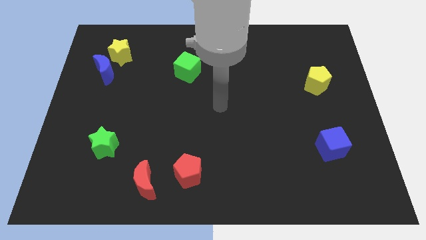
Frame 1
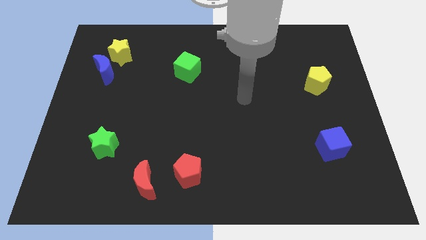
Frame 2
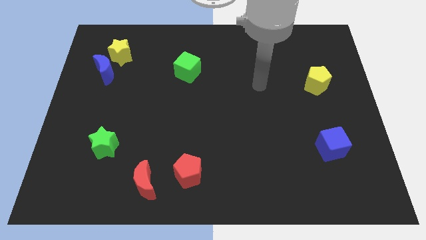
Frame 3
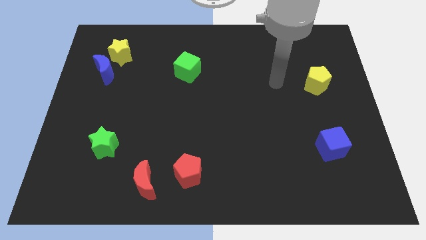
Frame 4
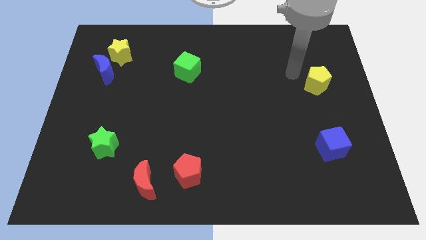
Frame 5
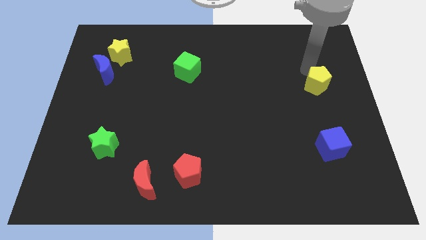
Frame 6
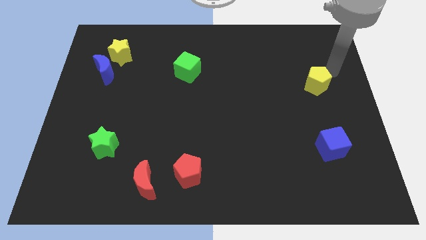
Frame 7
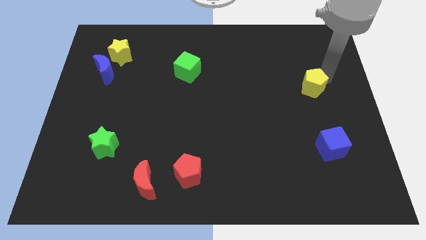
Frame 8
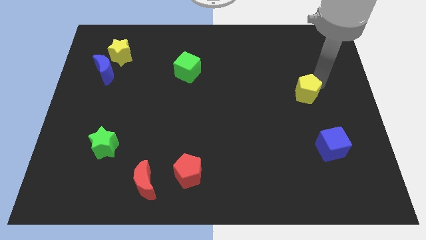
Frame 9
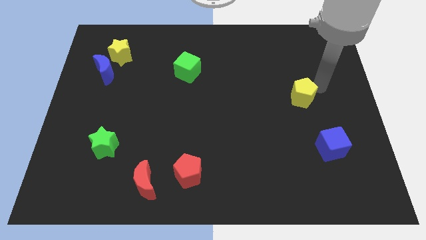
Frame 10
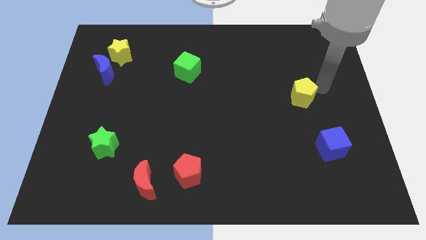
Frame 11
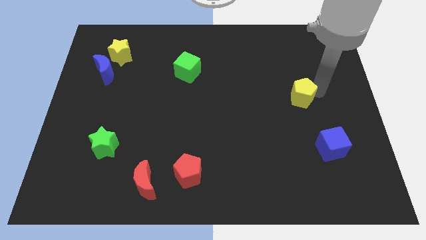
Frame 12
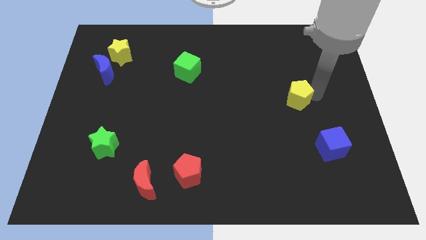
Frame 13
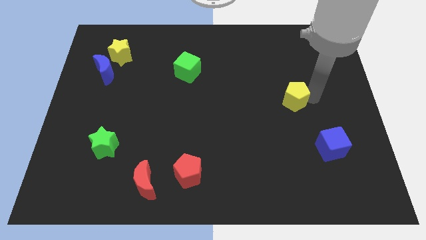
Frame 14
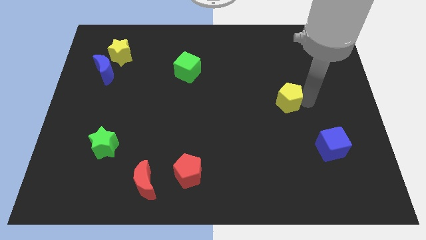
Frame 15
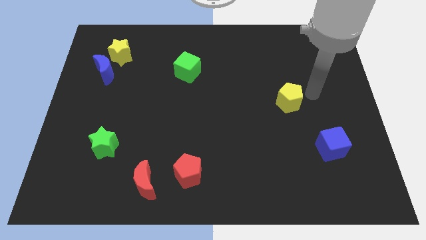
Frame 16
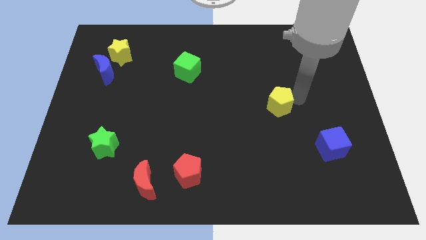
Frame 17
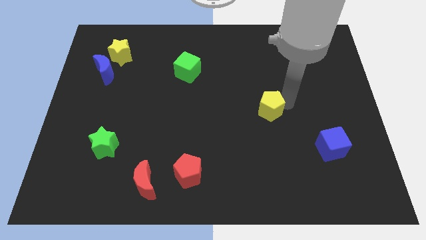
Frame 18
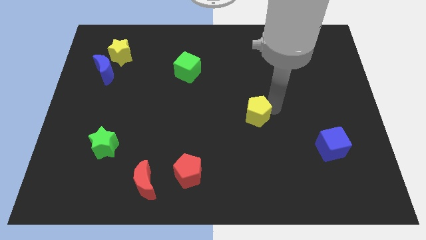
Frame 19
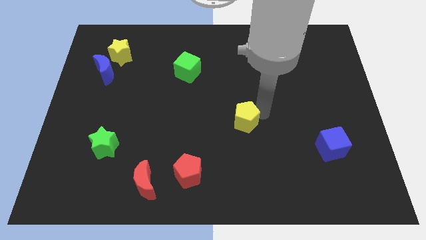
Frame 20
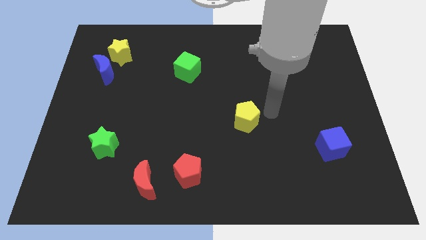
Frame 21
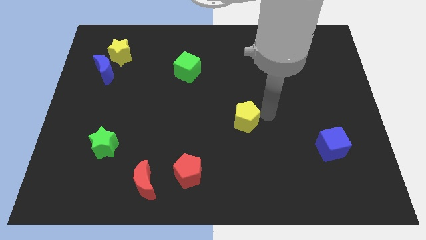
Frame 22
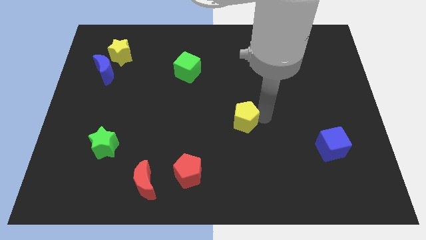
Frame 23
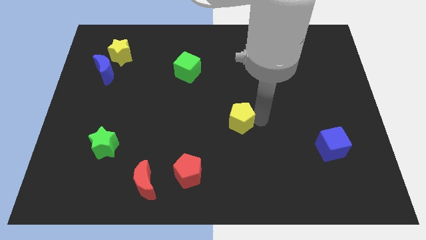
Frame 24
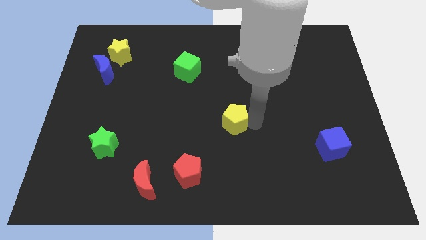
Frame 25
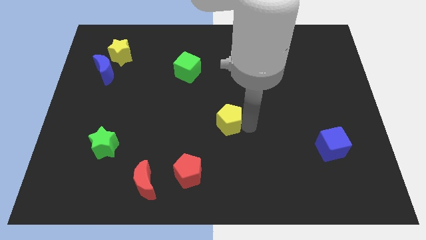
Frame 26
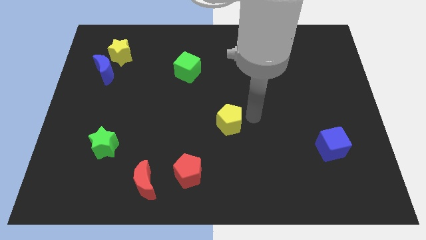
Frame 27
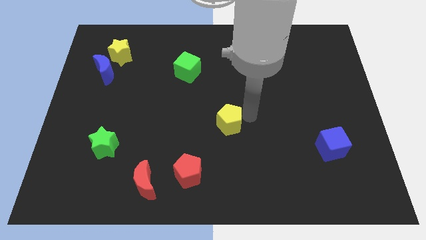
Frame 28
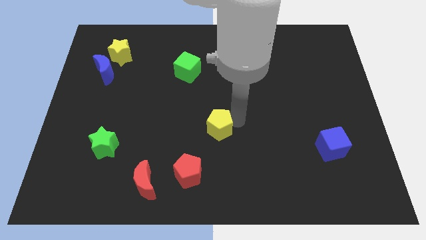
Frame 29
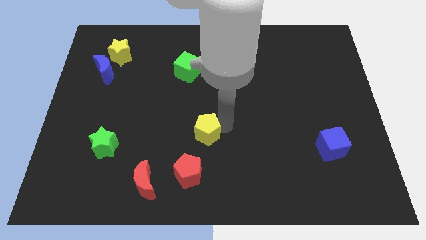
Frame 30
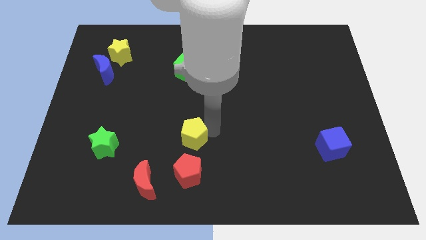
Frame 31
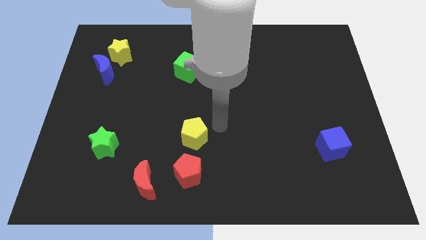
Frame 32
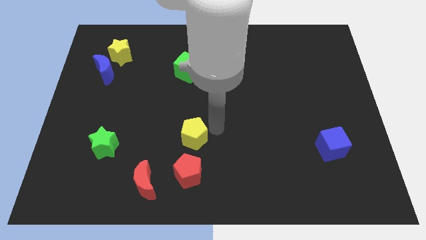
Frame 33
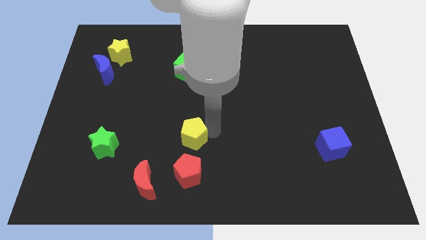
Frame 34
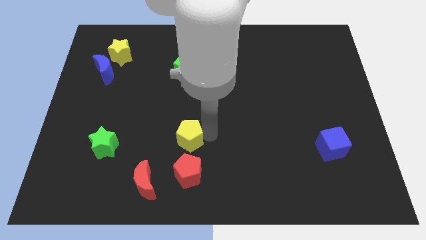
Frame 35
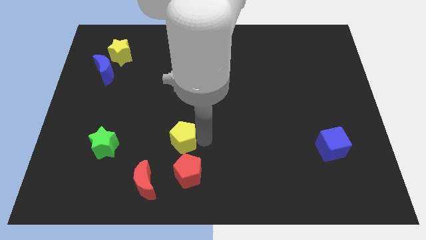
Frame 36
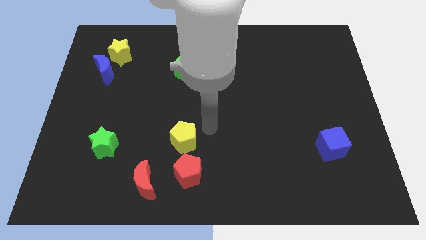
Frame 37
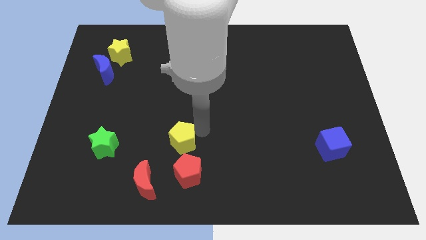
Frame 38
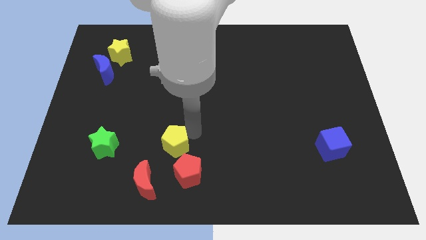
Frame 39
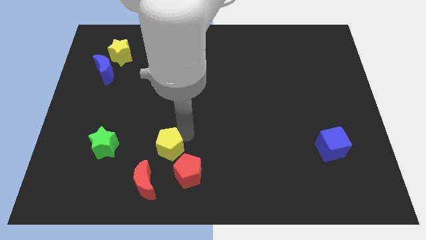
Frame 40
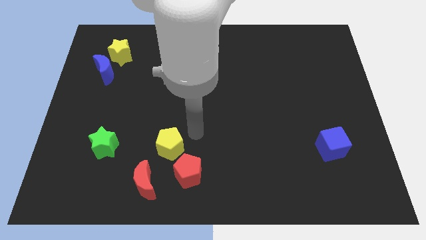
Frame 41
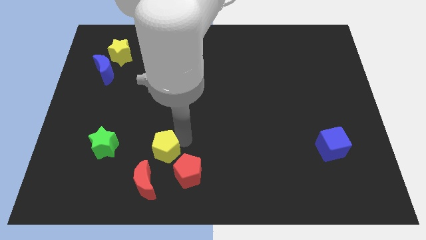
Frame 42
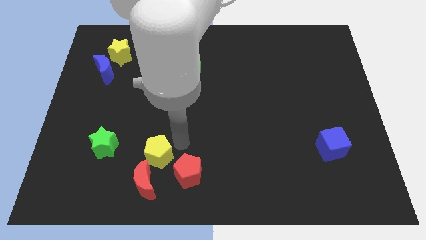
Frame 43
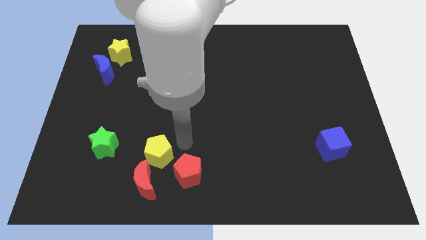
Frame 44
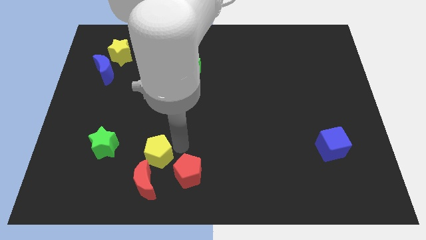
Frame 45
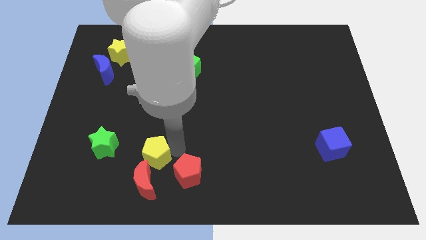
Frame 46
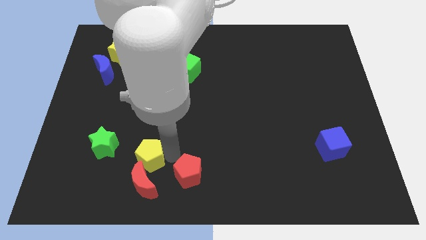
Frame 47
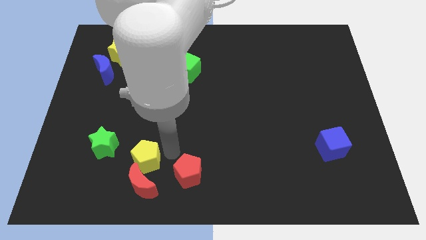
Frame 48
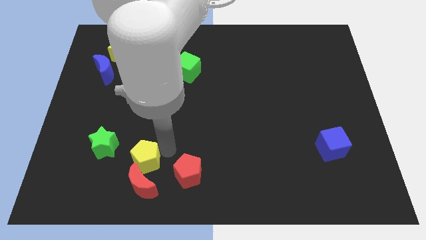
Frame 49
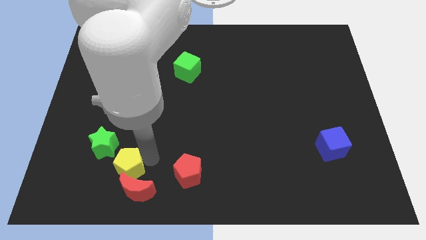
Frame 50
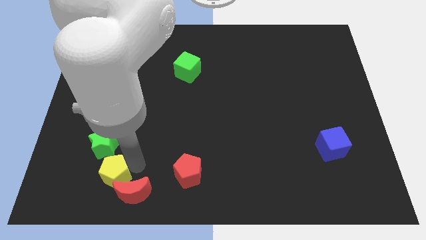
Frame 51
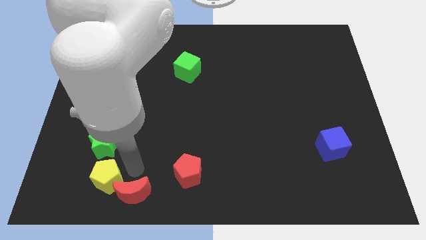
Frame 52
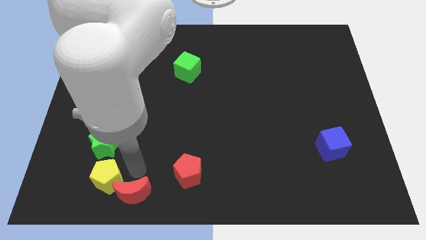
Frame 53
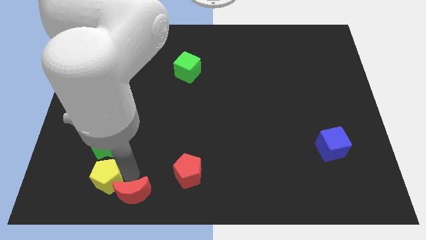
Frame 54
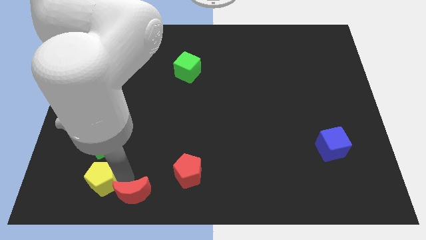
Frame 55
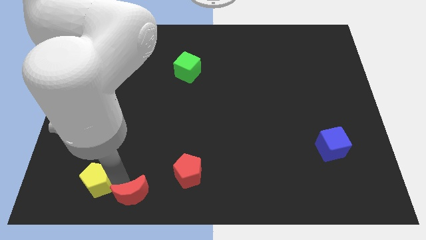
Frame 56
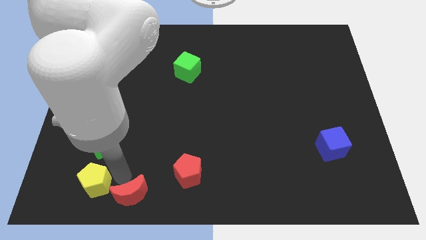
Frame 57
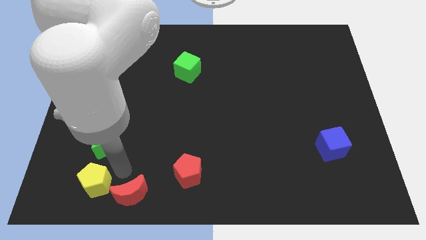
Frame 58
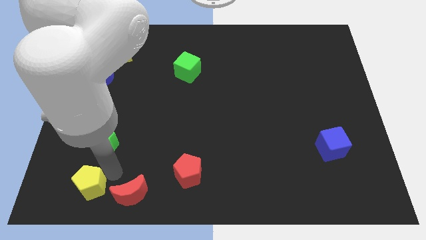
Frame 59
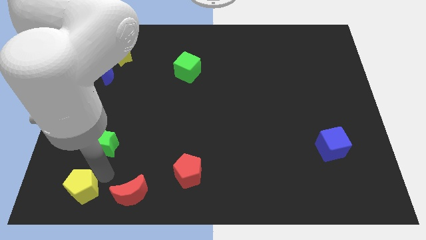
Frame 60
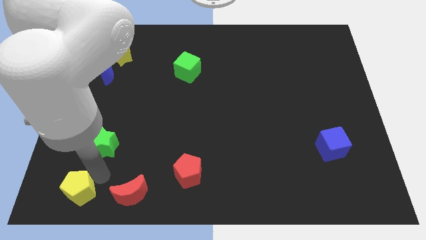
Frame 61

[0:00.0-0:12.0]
put the yellow pentagon to the lower left corner

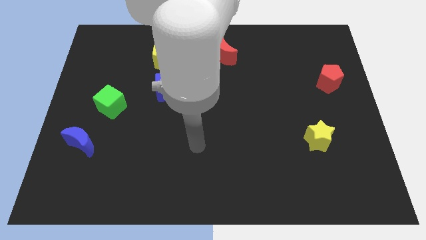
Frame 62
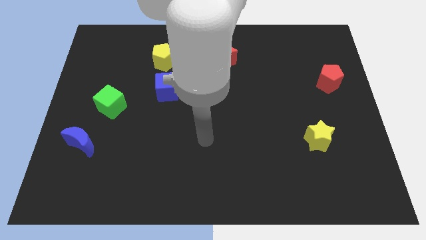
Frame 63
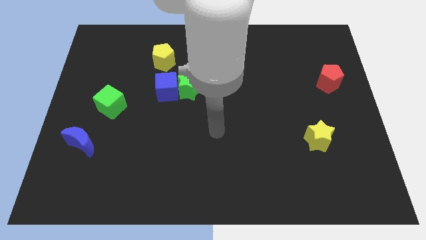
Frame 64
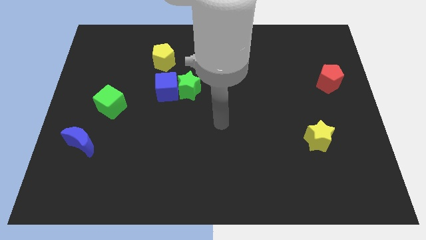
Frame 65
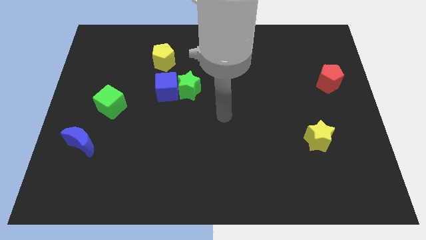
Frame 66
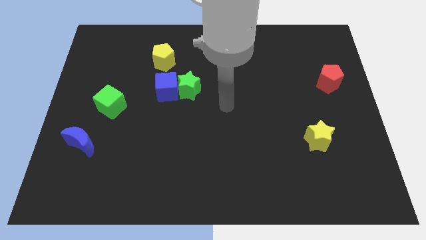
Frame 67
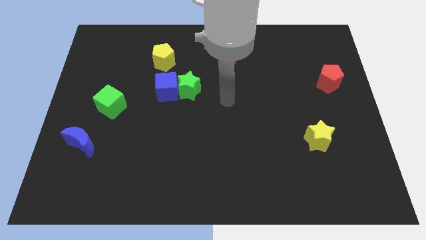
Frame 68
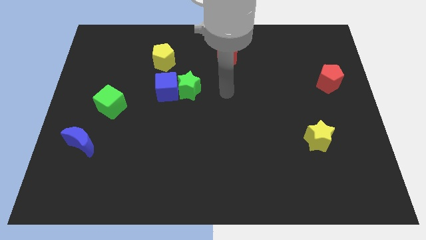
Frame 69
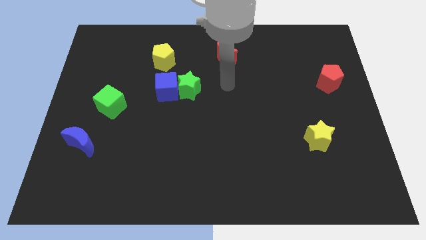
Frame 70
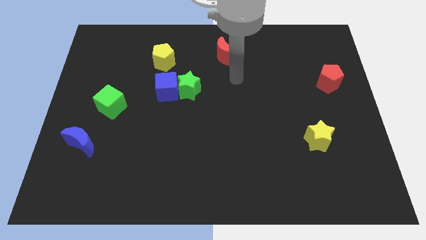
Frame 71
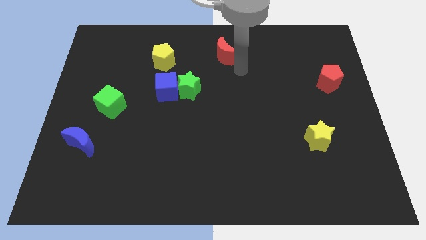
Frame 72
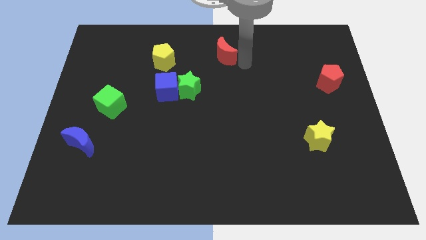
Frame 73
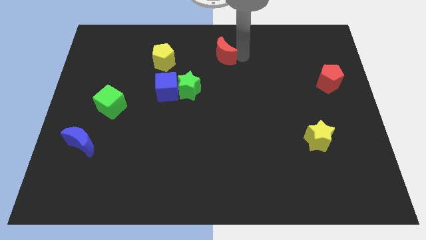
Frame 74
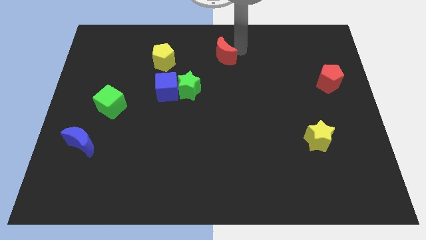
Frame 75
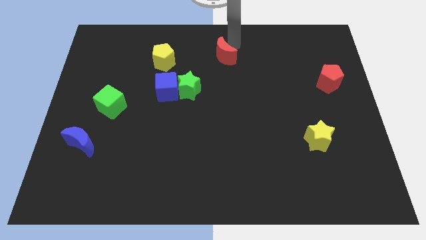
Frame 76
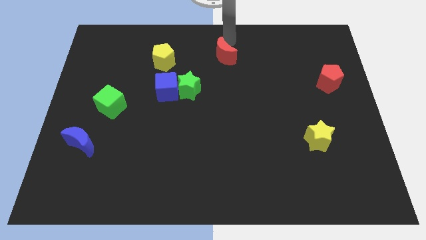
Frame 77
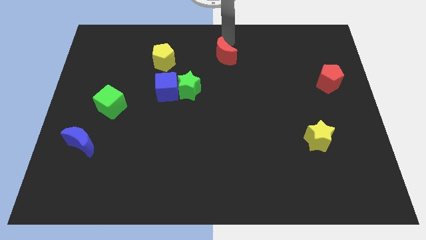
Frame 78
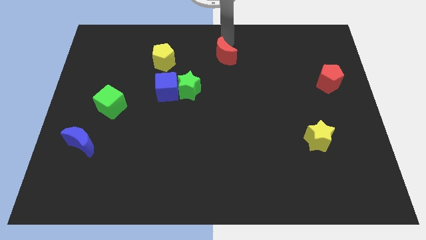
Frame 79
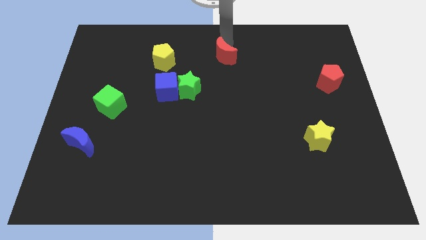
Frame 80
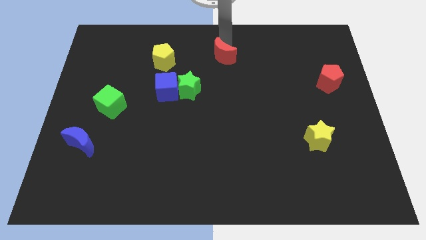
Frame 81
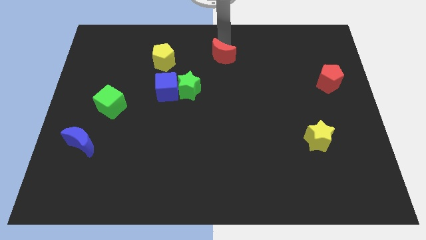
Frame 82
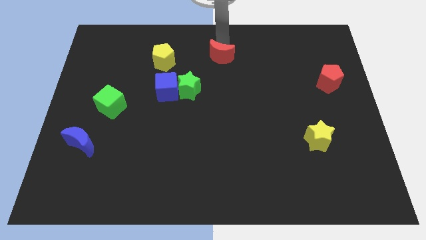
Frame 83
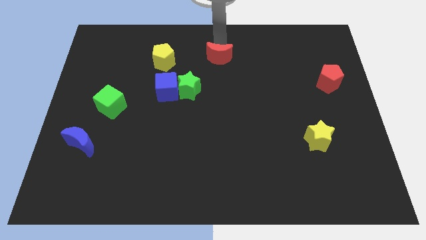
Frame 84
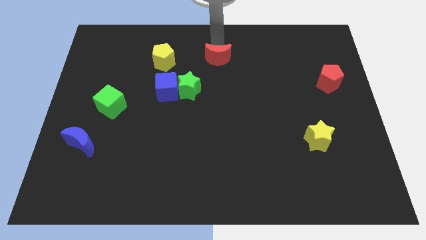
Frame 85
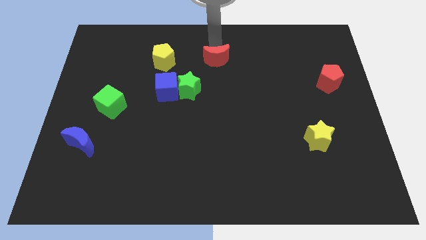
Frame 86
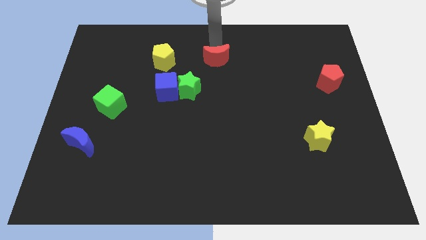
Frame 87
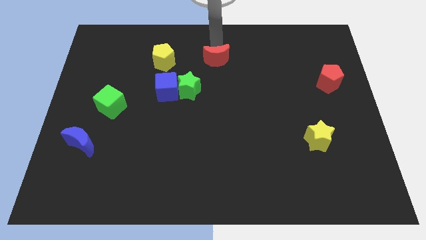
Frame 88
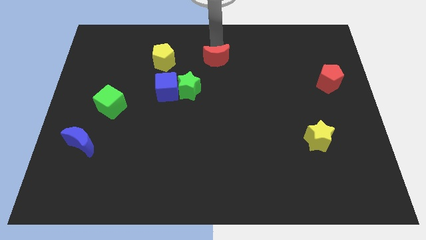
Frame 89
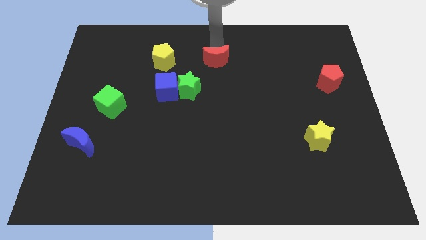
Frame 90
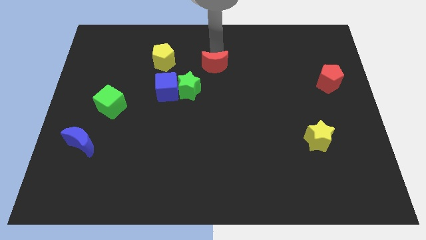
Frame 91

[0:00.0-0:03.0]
push the red moon to the center of the board
